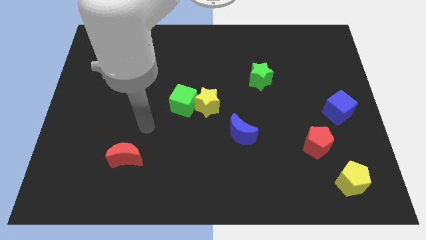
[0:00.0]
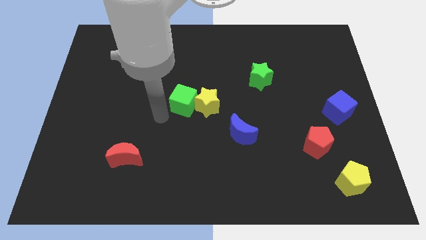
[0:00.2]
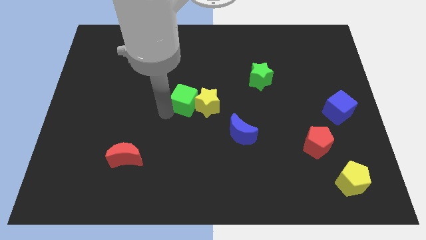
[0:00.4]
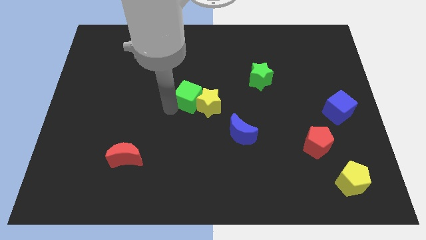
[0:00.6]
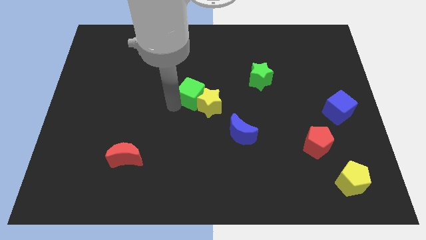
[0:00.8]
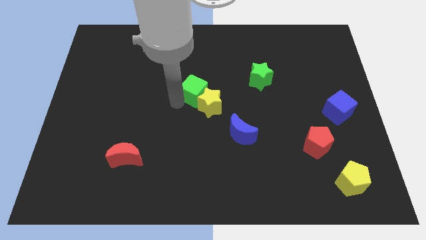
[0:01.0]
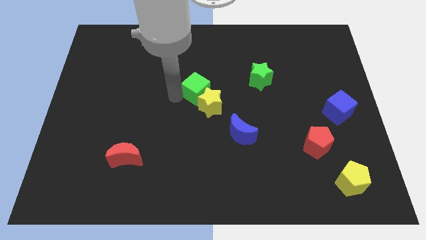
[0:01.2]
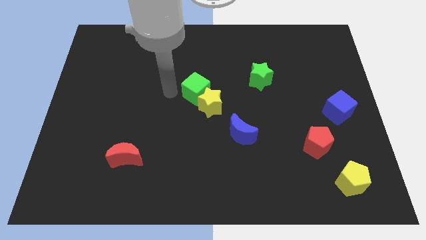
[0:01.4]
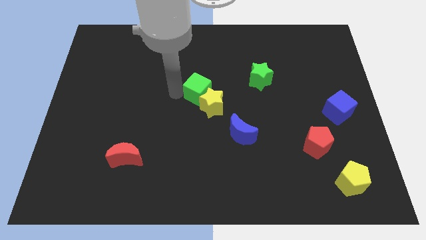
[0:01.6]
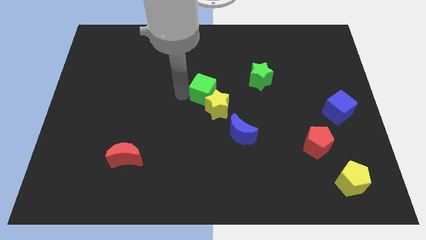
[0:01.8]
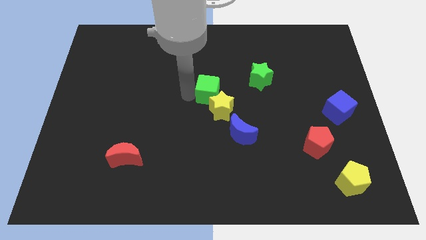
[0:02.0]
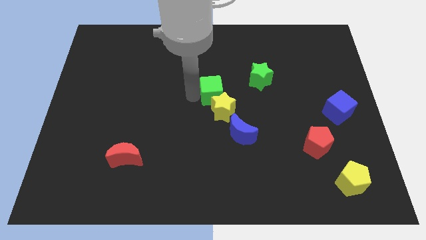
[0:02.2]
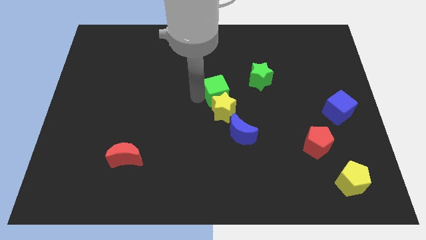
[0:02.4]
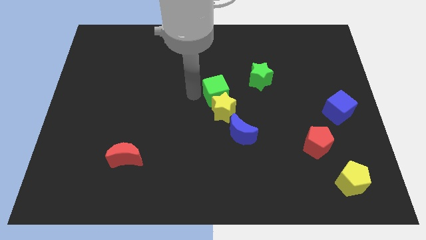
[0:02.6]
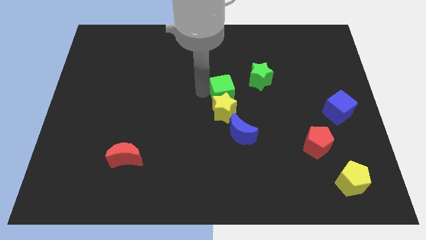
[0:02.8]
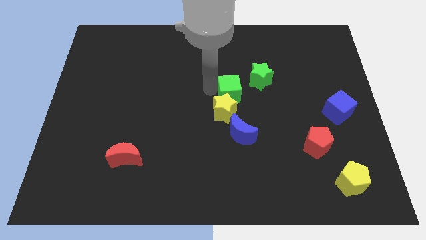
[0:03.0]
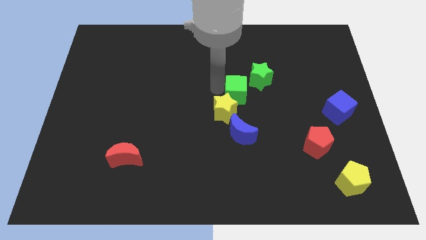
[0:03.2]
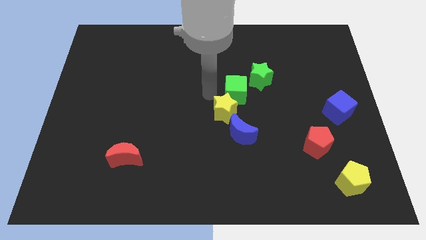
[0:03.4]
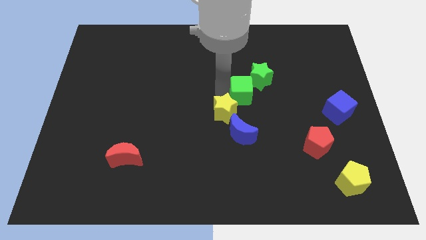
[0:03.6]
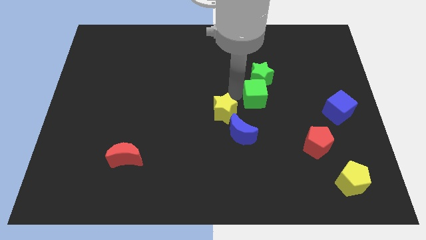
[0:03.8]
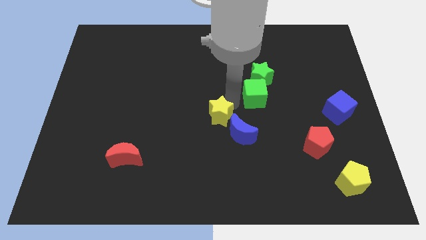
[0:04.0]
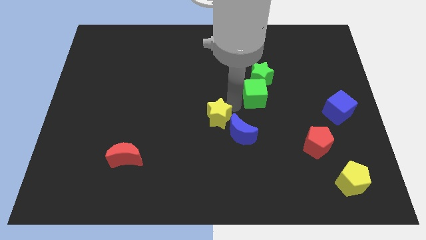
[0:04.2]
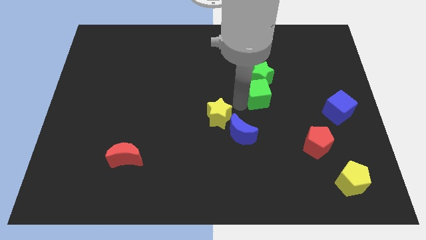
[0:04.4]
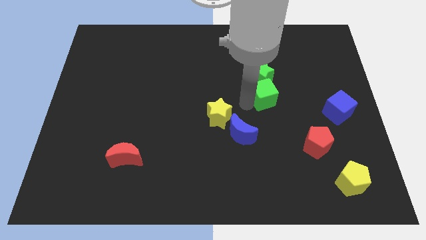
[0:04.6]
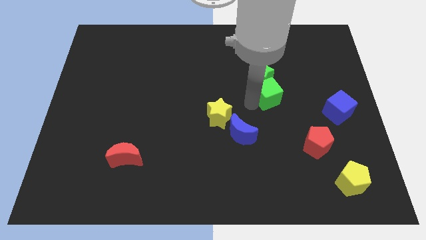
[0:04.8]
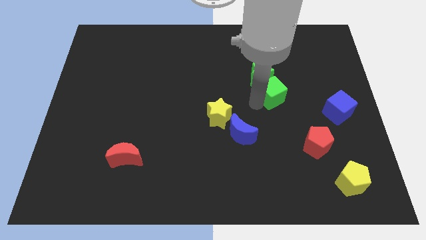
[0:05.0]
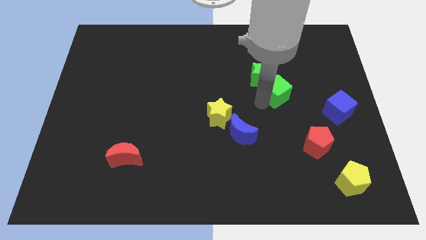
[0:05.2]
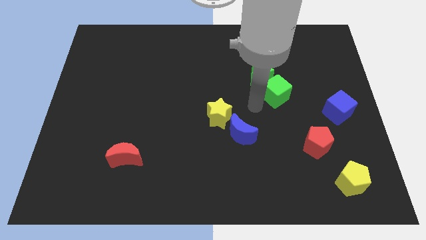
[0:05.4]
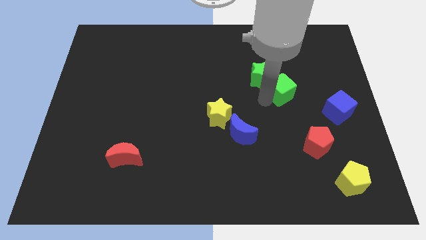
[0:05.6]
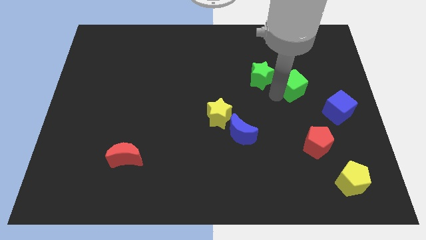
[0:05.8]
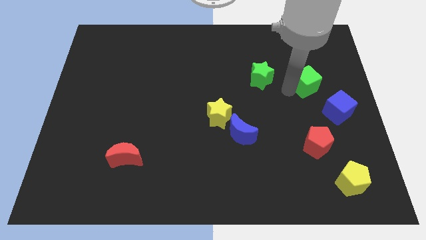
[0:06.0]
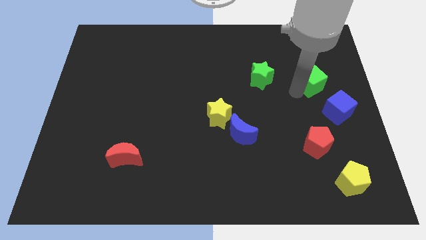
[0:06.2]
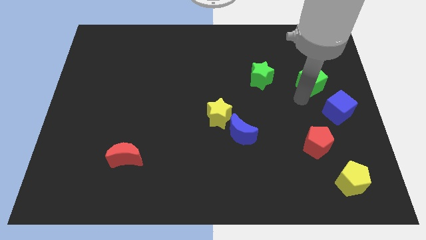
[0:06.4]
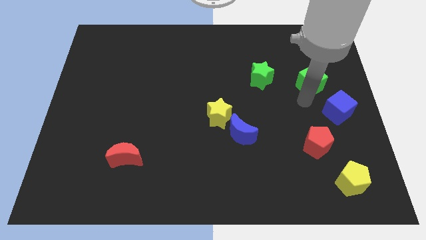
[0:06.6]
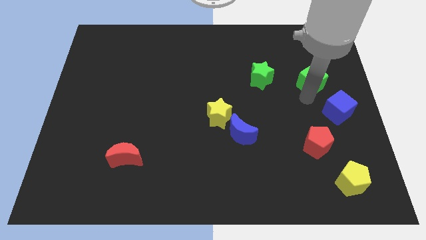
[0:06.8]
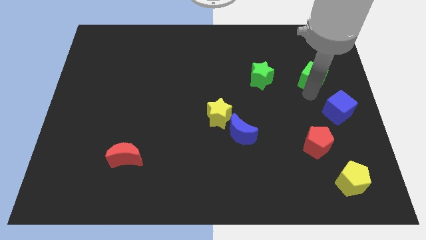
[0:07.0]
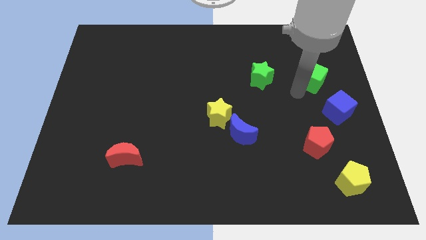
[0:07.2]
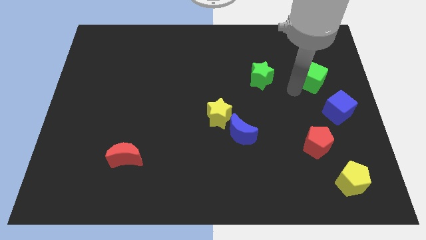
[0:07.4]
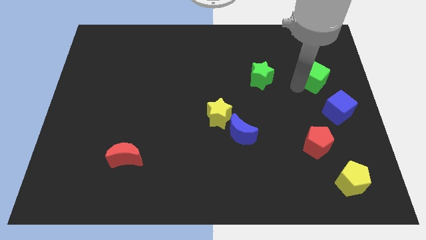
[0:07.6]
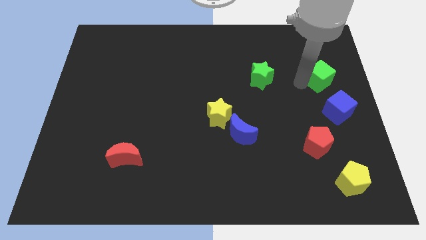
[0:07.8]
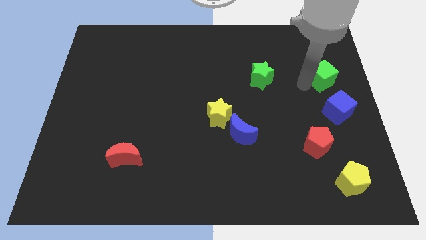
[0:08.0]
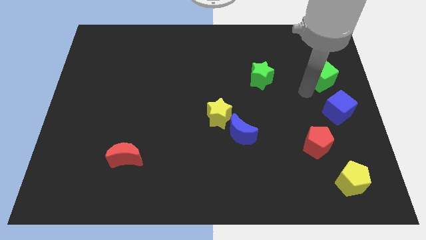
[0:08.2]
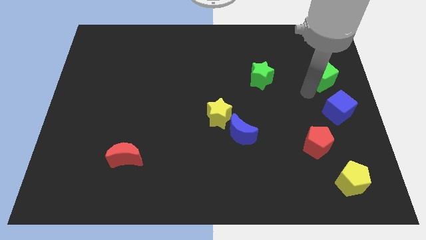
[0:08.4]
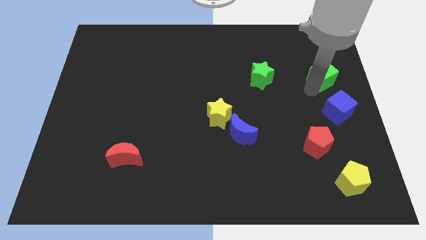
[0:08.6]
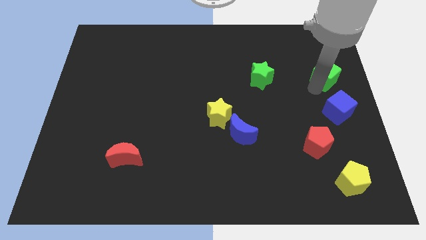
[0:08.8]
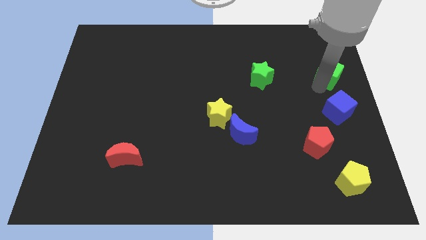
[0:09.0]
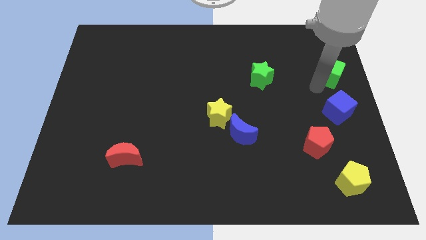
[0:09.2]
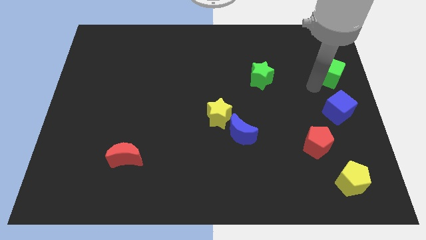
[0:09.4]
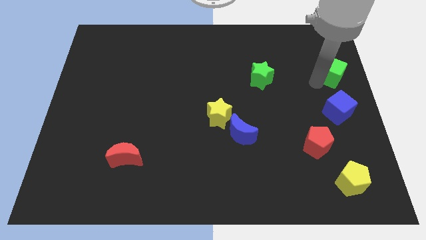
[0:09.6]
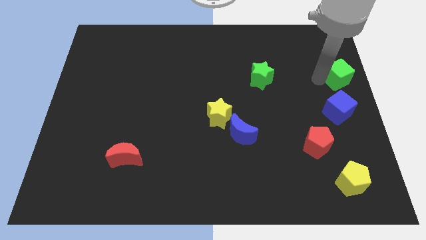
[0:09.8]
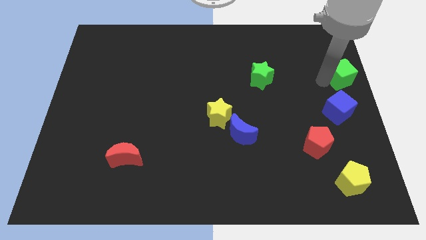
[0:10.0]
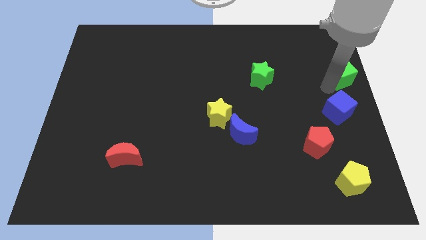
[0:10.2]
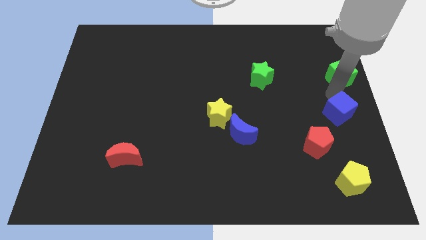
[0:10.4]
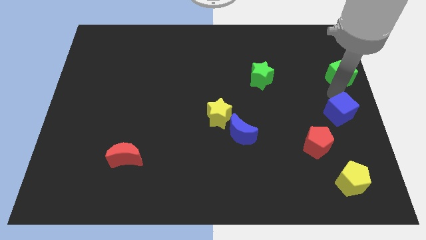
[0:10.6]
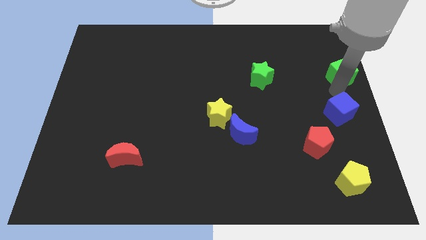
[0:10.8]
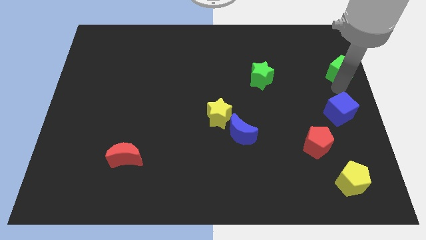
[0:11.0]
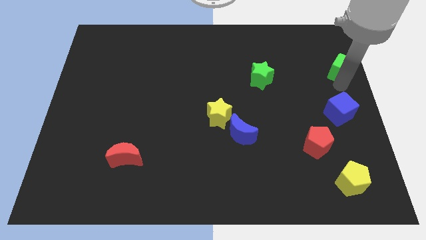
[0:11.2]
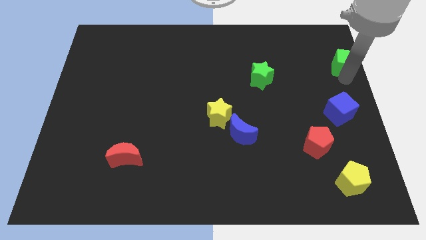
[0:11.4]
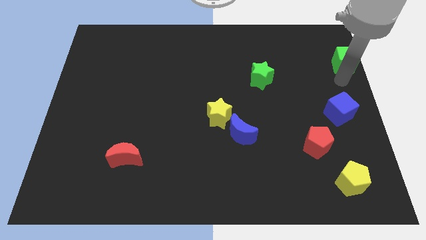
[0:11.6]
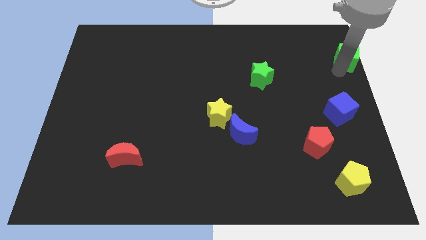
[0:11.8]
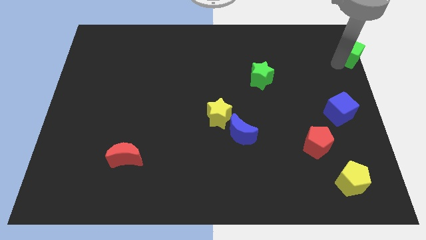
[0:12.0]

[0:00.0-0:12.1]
put the green cube to the top right corner
